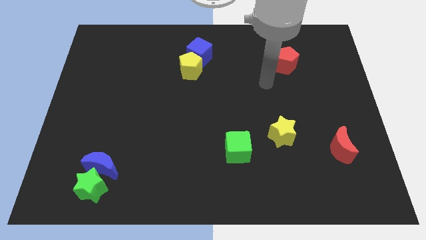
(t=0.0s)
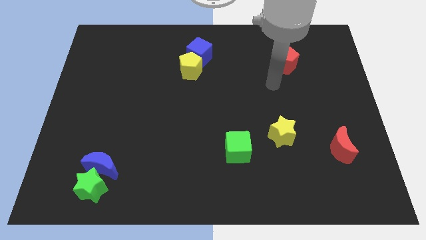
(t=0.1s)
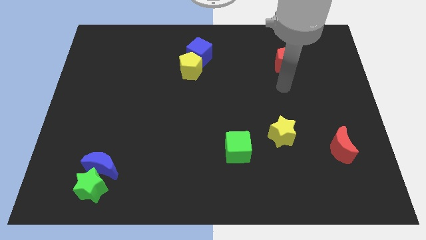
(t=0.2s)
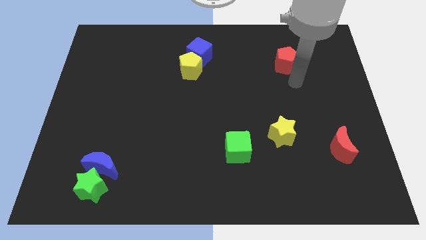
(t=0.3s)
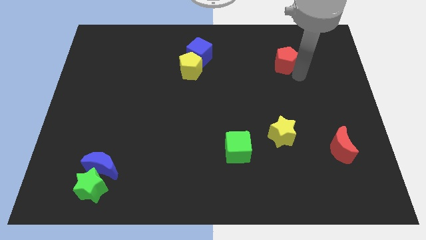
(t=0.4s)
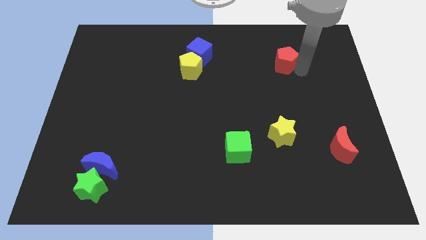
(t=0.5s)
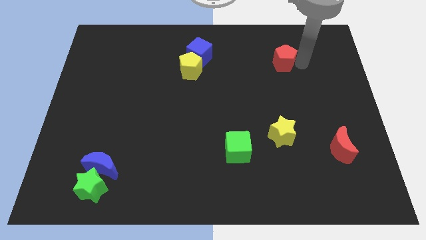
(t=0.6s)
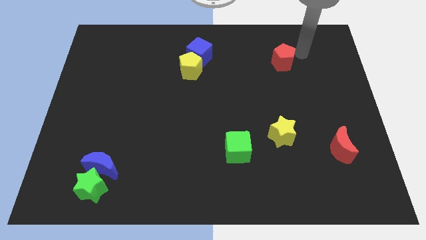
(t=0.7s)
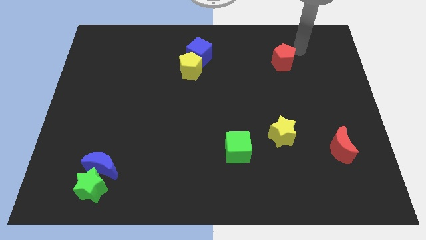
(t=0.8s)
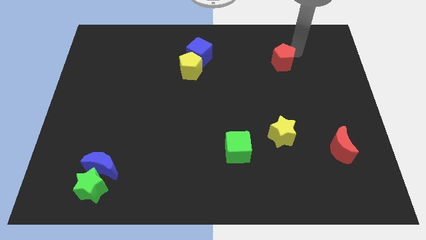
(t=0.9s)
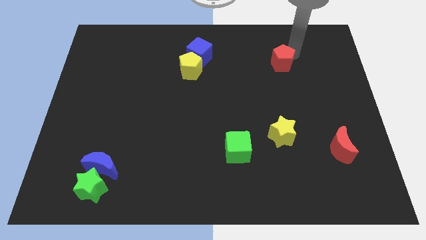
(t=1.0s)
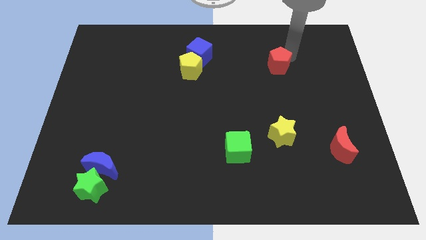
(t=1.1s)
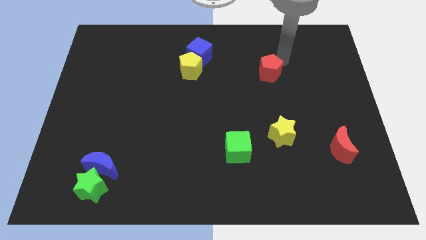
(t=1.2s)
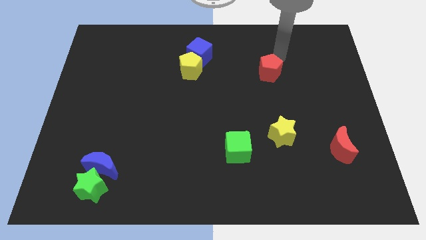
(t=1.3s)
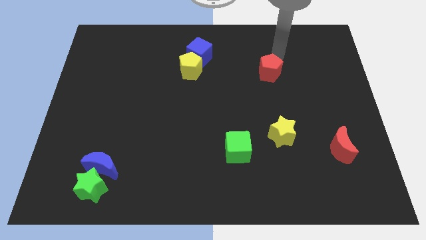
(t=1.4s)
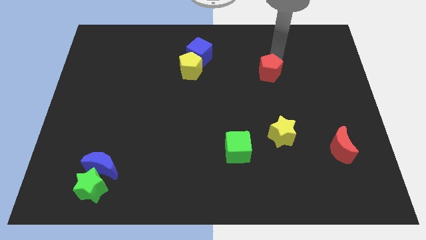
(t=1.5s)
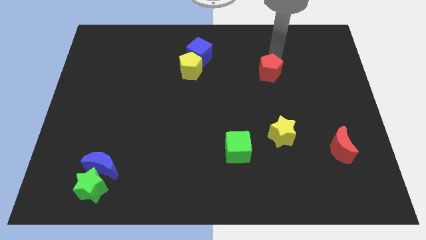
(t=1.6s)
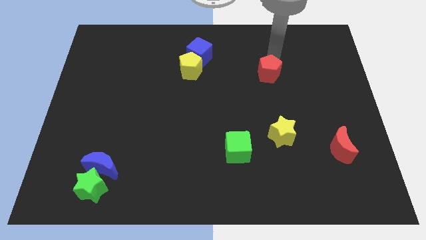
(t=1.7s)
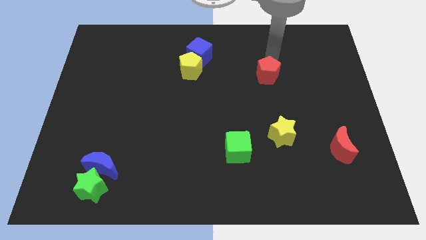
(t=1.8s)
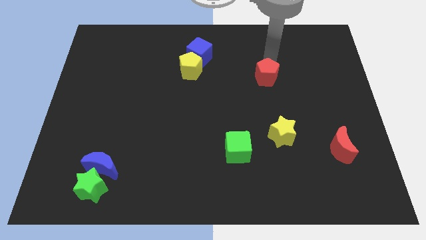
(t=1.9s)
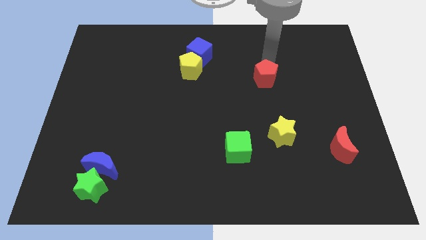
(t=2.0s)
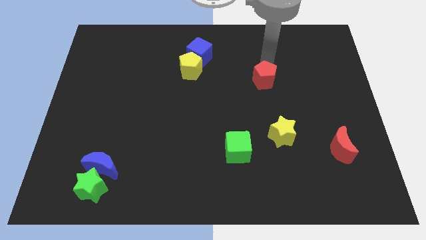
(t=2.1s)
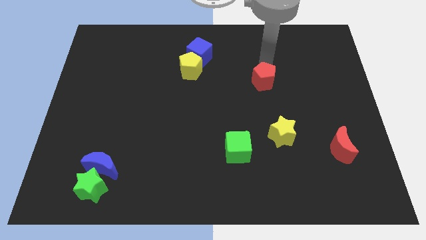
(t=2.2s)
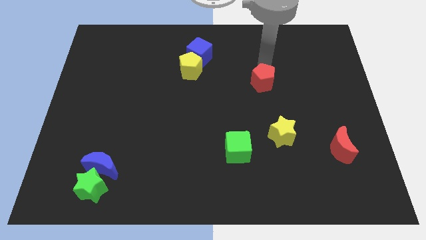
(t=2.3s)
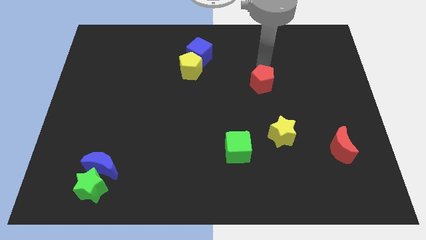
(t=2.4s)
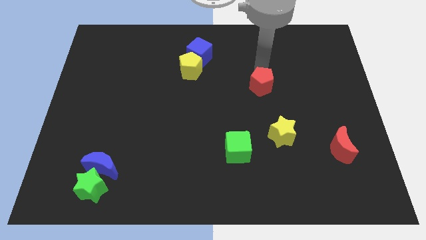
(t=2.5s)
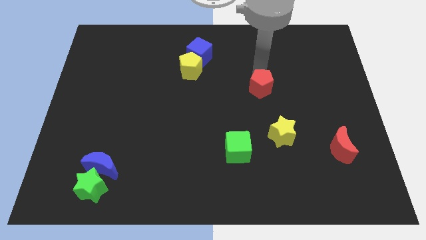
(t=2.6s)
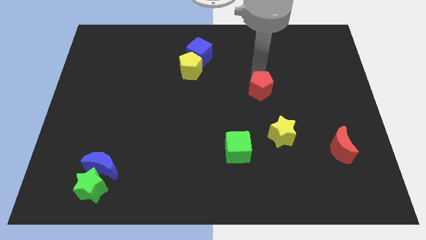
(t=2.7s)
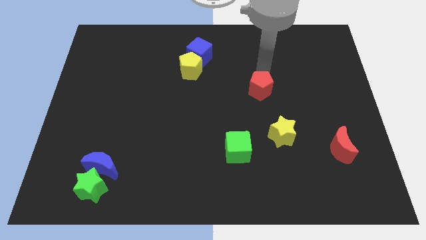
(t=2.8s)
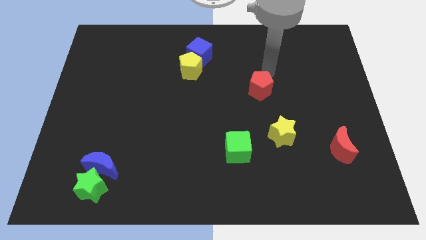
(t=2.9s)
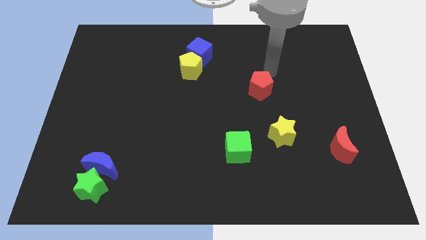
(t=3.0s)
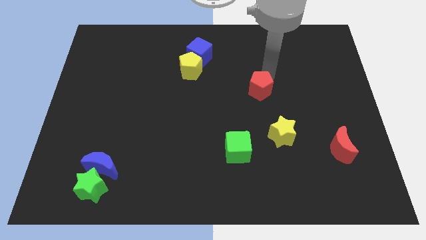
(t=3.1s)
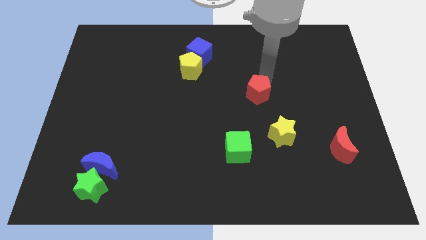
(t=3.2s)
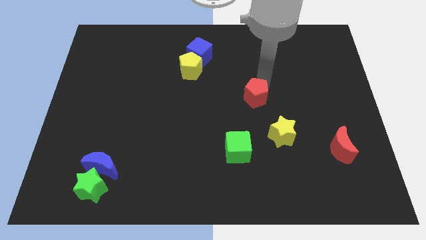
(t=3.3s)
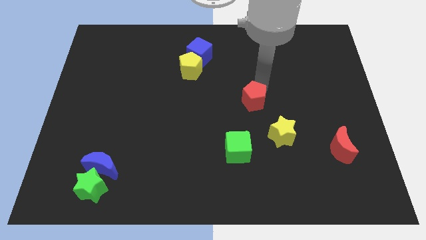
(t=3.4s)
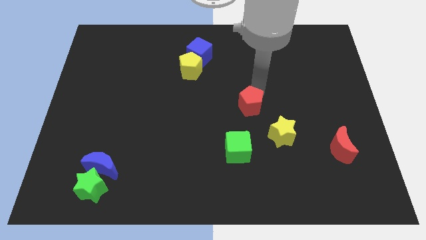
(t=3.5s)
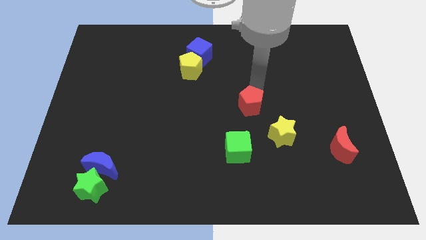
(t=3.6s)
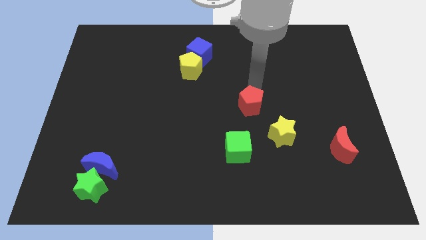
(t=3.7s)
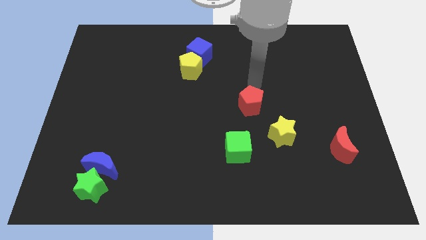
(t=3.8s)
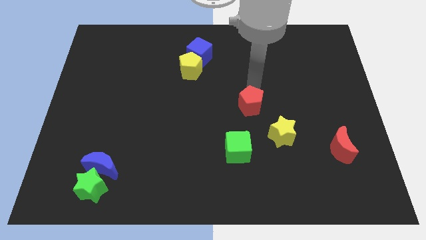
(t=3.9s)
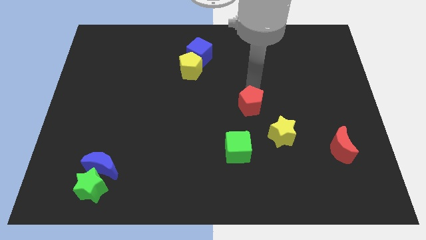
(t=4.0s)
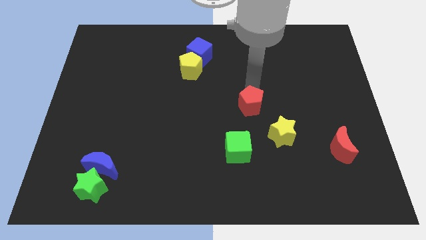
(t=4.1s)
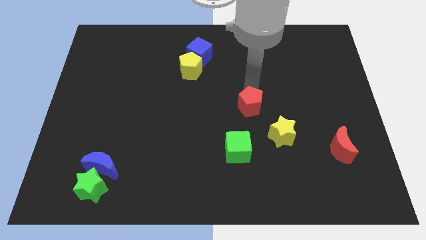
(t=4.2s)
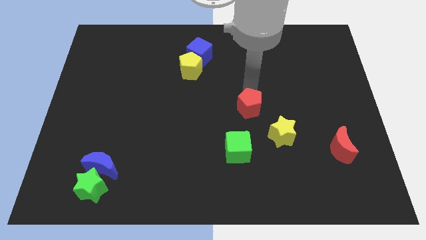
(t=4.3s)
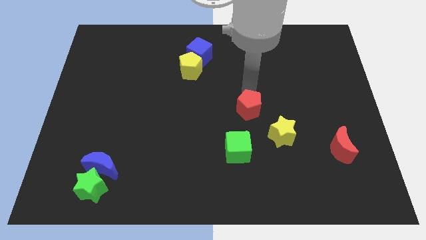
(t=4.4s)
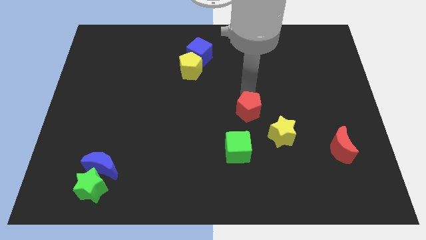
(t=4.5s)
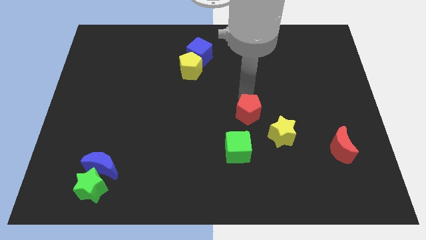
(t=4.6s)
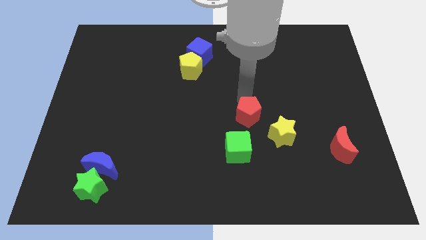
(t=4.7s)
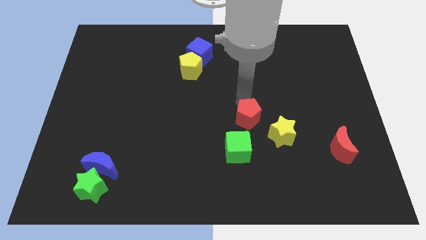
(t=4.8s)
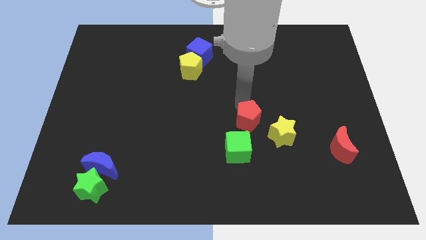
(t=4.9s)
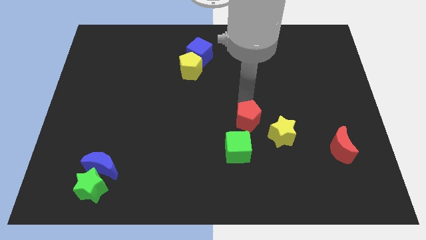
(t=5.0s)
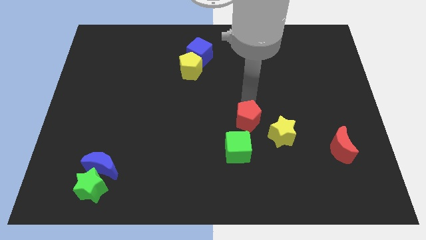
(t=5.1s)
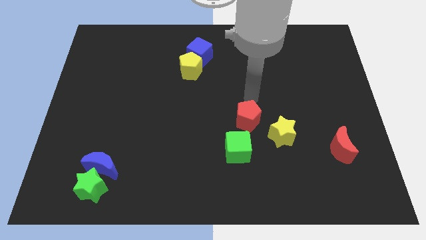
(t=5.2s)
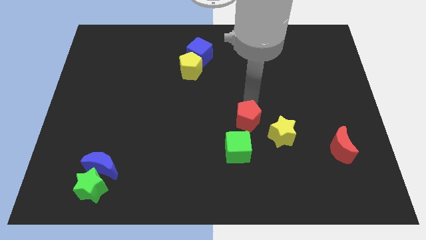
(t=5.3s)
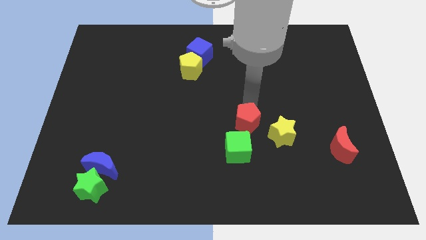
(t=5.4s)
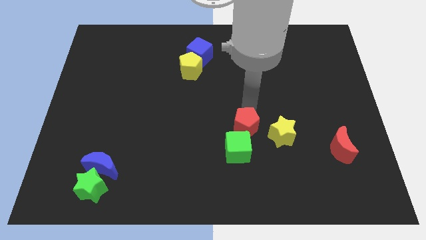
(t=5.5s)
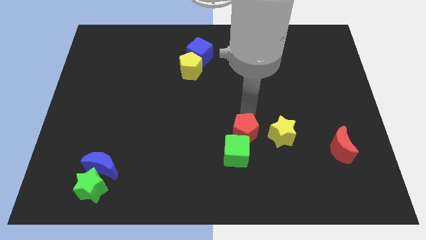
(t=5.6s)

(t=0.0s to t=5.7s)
put the red pentagon to the green cube

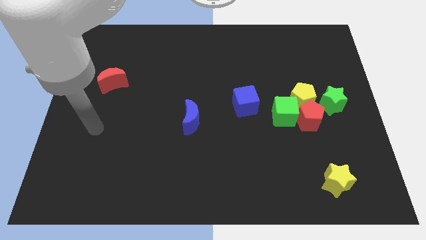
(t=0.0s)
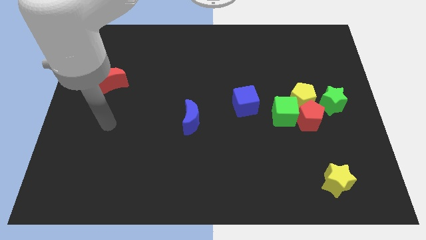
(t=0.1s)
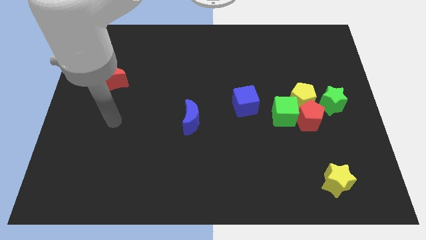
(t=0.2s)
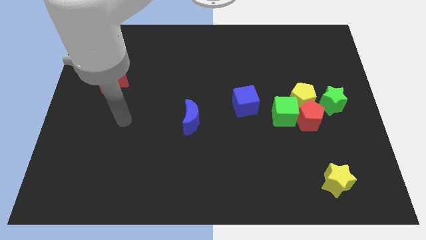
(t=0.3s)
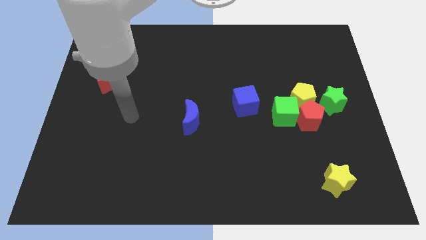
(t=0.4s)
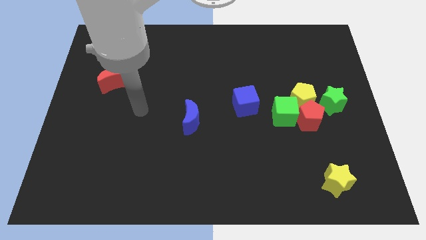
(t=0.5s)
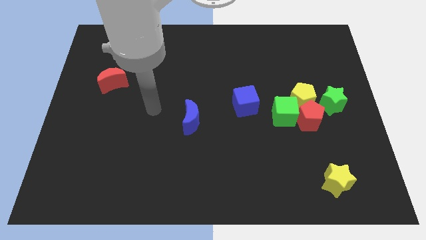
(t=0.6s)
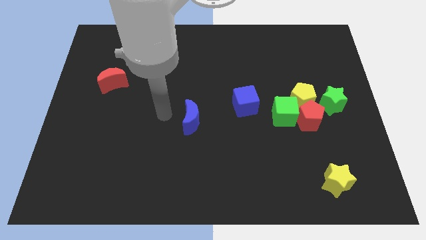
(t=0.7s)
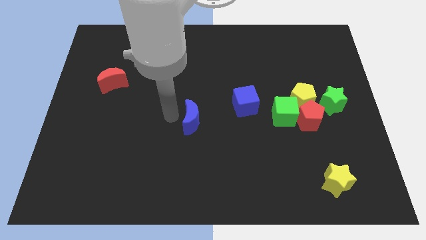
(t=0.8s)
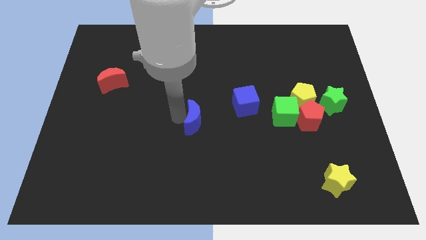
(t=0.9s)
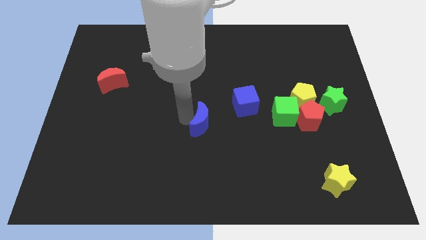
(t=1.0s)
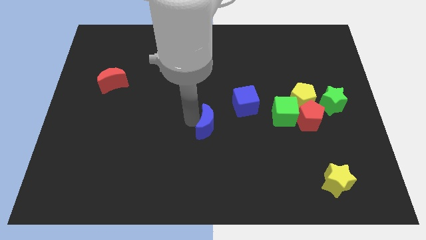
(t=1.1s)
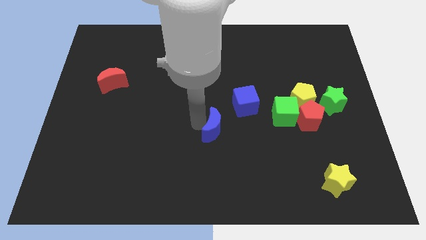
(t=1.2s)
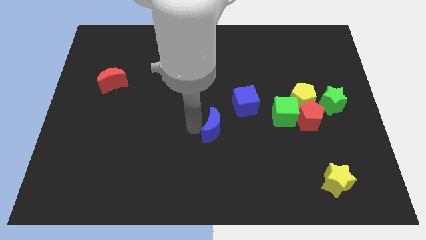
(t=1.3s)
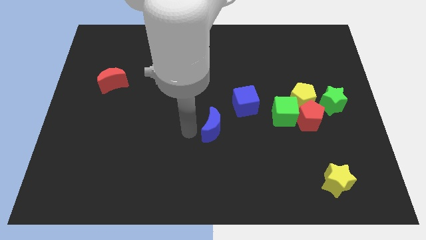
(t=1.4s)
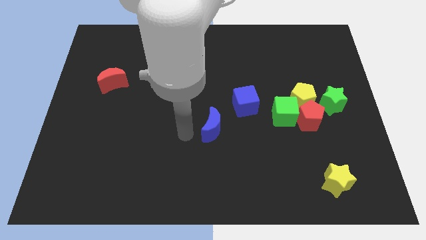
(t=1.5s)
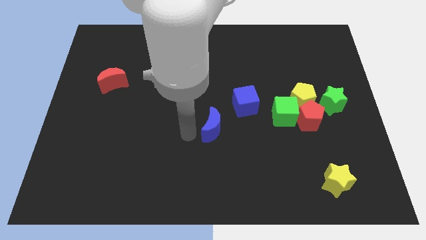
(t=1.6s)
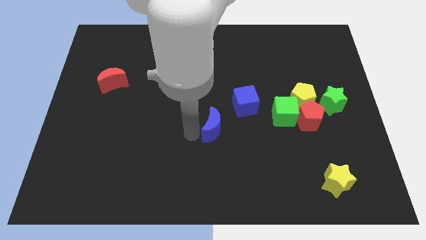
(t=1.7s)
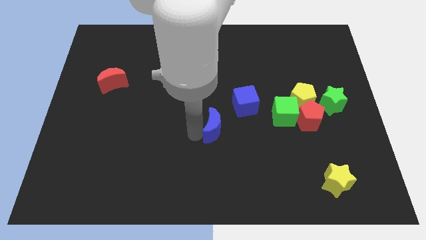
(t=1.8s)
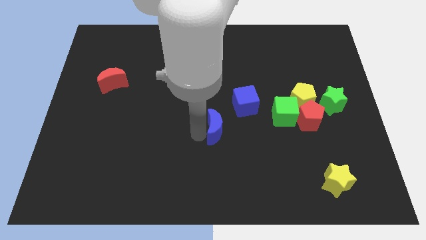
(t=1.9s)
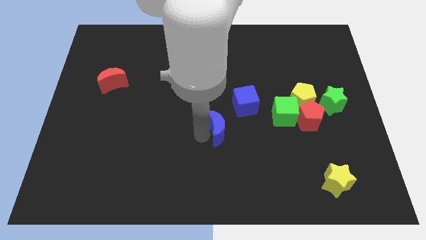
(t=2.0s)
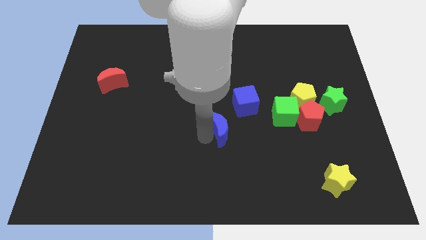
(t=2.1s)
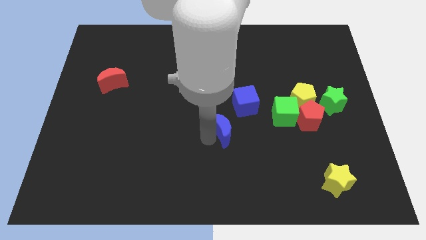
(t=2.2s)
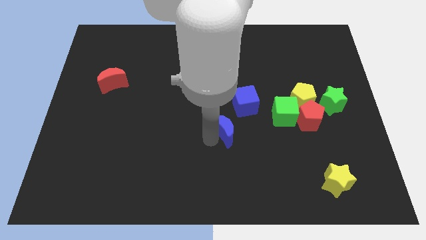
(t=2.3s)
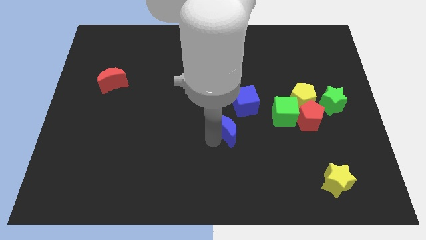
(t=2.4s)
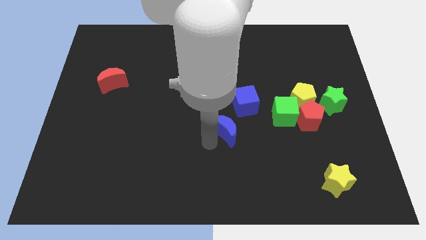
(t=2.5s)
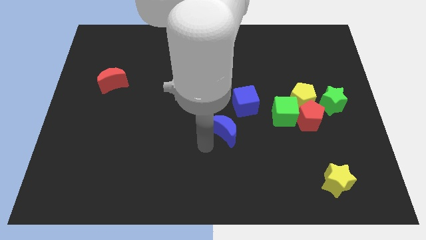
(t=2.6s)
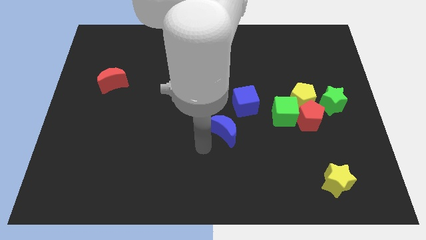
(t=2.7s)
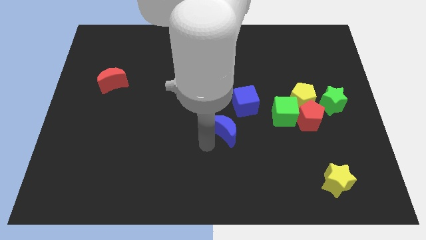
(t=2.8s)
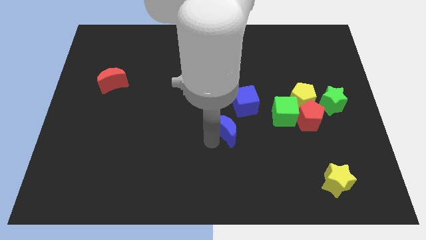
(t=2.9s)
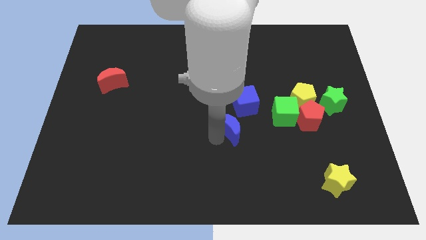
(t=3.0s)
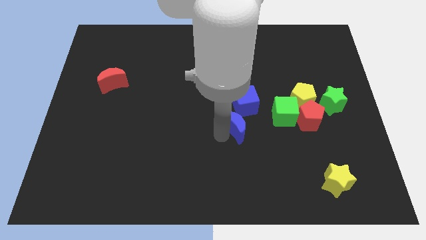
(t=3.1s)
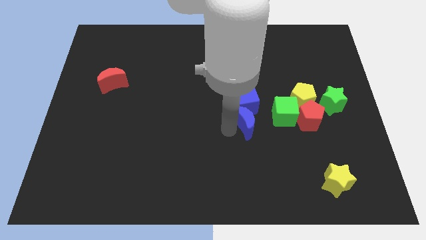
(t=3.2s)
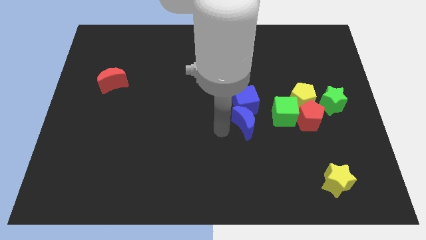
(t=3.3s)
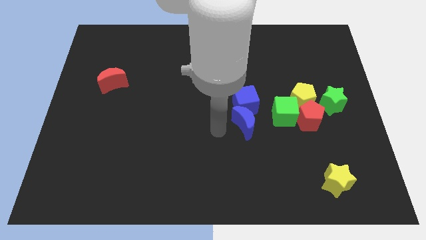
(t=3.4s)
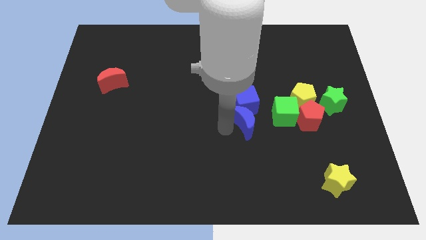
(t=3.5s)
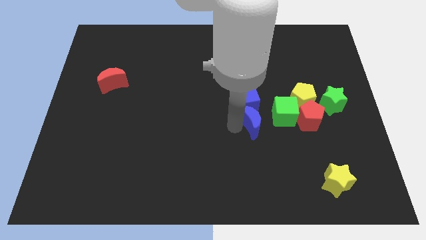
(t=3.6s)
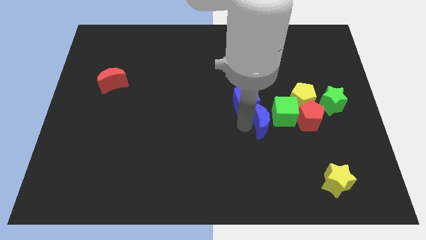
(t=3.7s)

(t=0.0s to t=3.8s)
put the blue moon to the green cube
